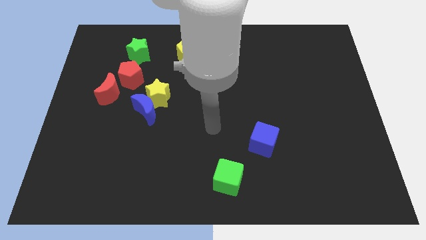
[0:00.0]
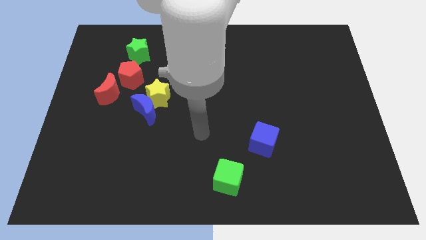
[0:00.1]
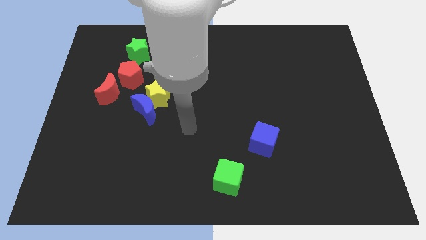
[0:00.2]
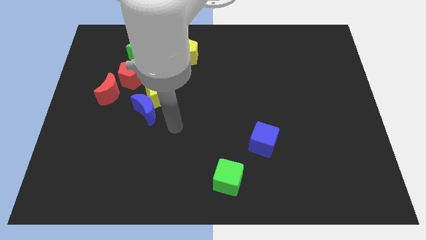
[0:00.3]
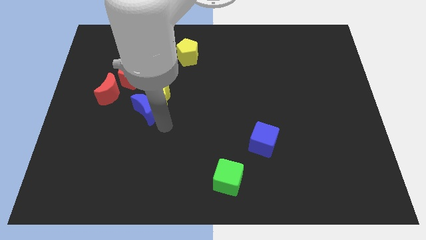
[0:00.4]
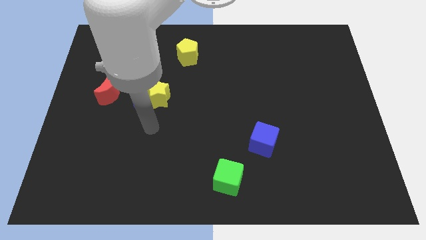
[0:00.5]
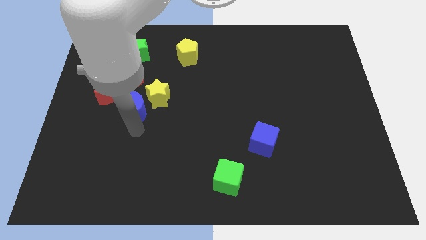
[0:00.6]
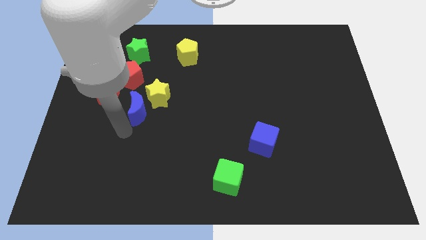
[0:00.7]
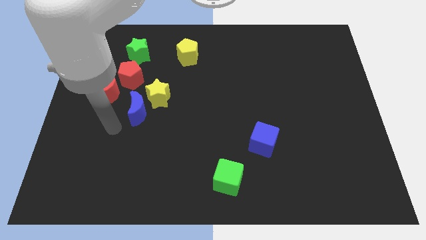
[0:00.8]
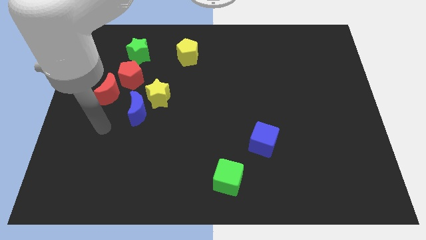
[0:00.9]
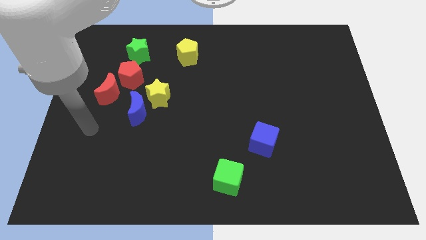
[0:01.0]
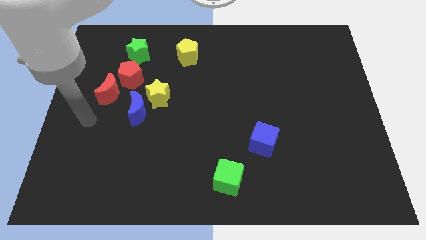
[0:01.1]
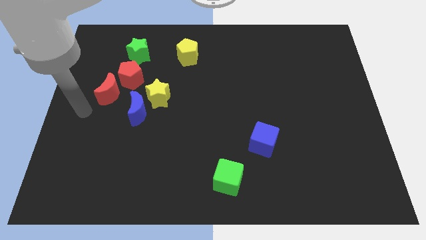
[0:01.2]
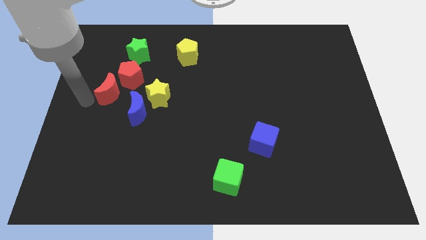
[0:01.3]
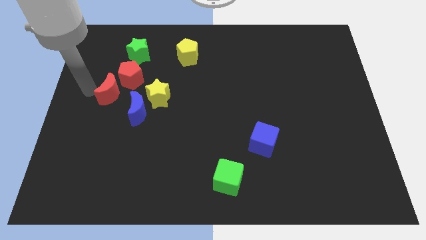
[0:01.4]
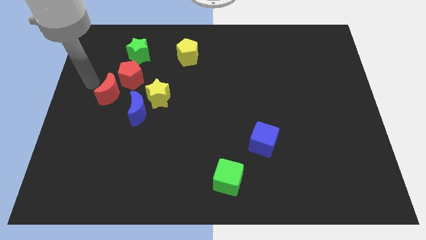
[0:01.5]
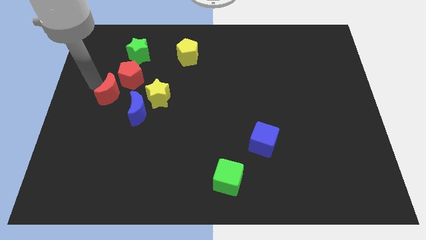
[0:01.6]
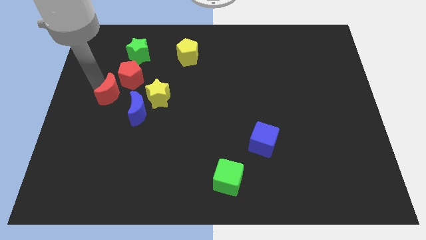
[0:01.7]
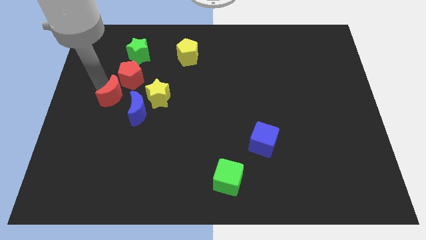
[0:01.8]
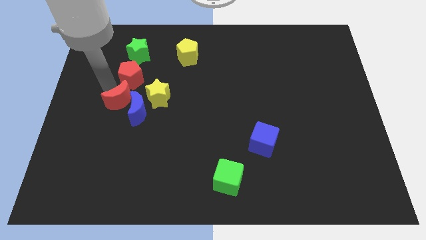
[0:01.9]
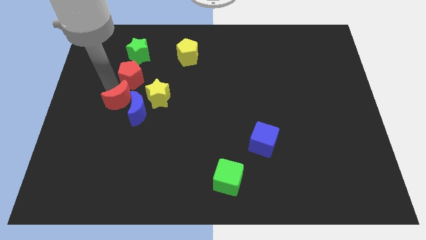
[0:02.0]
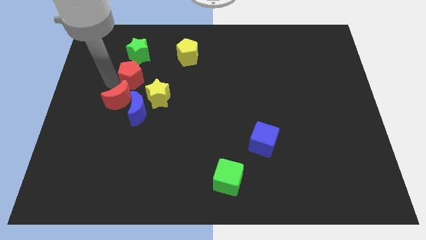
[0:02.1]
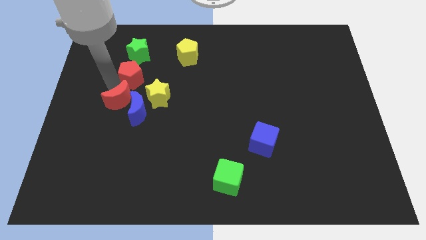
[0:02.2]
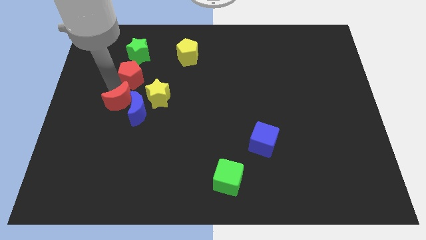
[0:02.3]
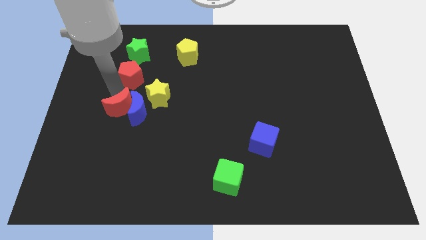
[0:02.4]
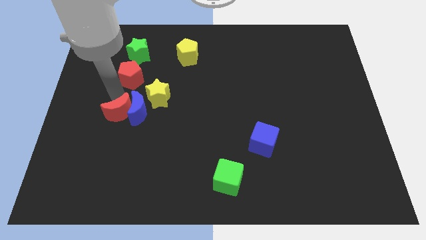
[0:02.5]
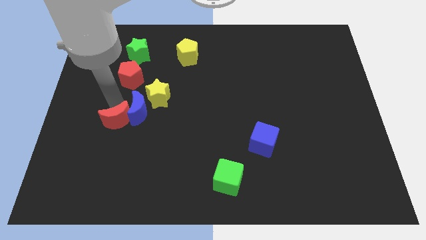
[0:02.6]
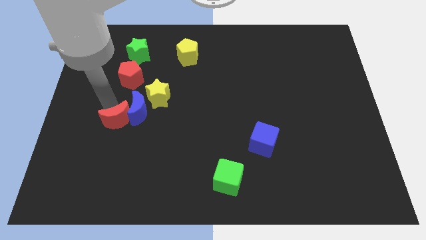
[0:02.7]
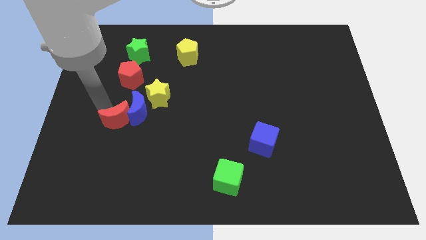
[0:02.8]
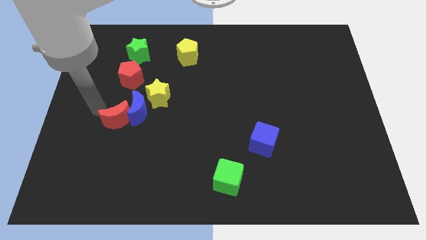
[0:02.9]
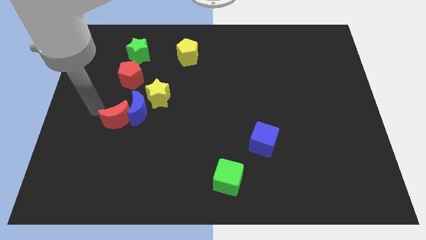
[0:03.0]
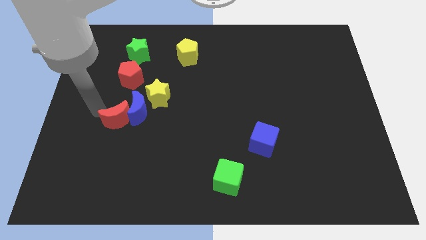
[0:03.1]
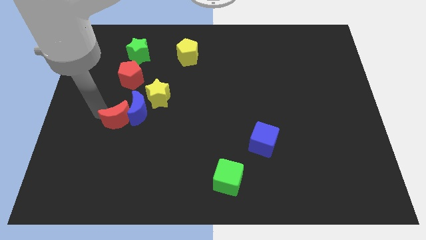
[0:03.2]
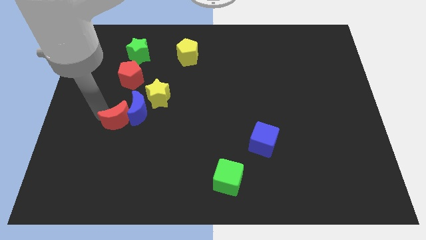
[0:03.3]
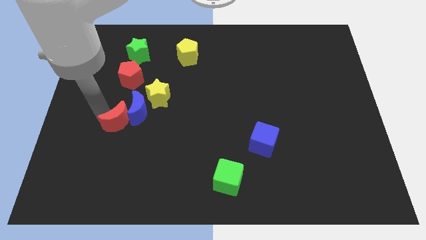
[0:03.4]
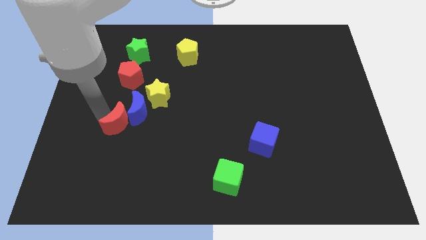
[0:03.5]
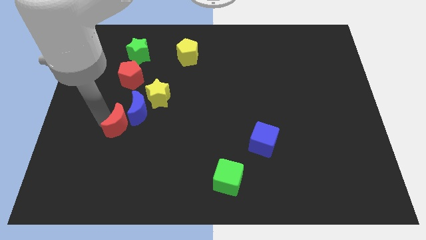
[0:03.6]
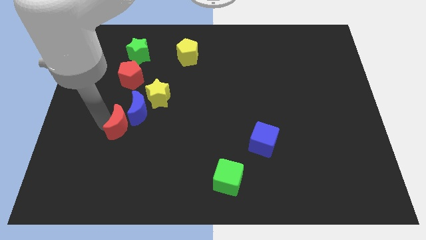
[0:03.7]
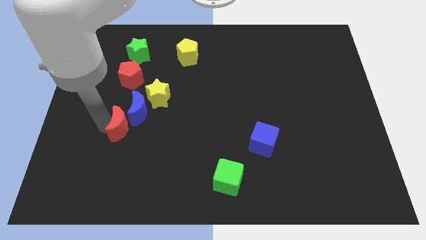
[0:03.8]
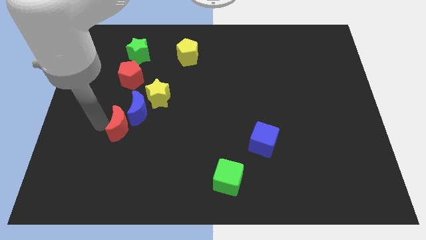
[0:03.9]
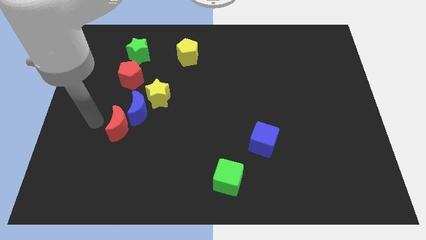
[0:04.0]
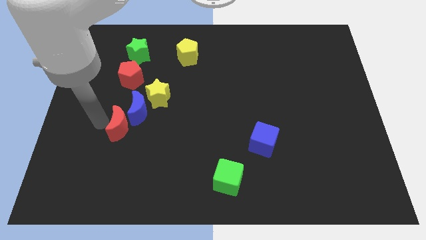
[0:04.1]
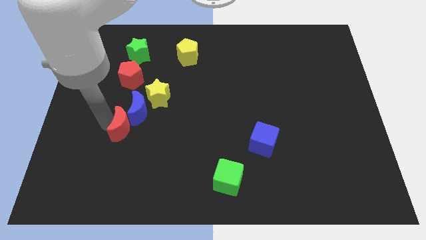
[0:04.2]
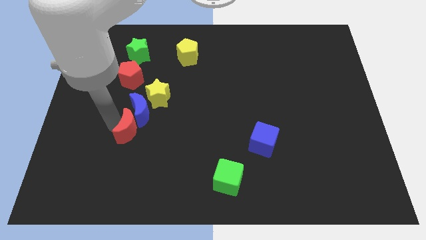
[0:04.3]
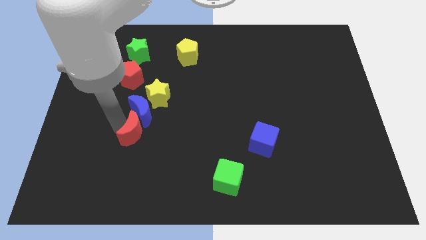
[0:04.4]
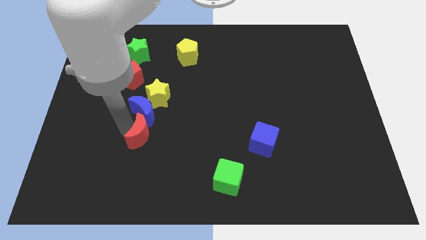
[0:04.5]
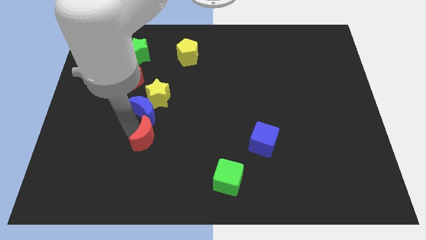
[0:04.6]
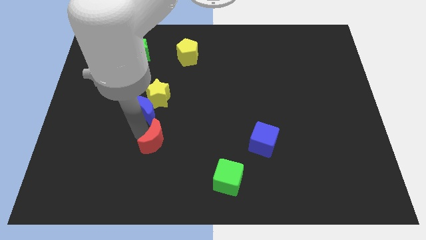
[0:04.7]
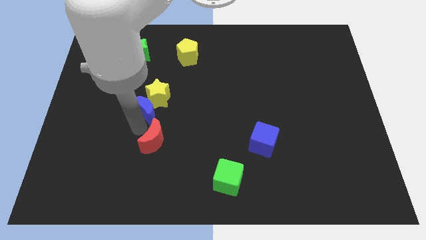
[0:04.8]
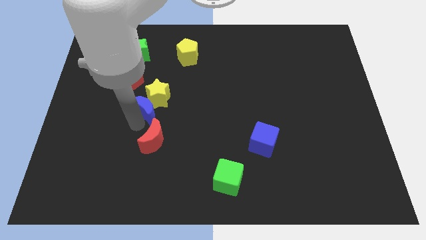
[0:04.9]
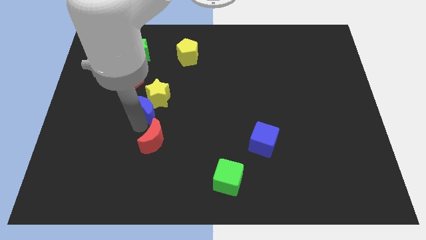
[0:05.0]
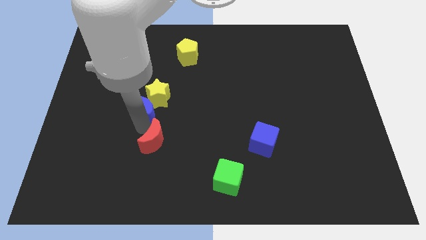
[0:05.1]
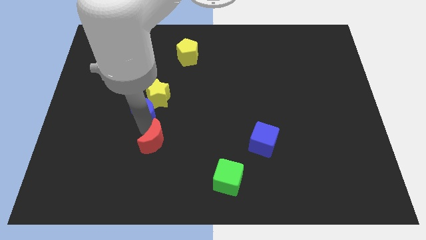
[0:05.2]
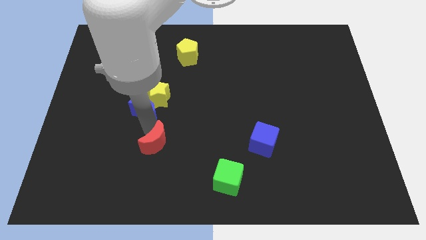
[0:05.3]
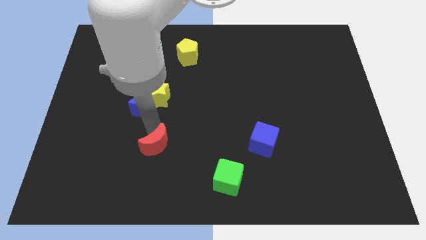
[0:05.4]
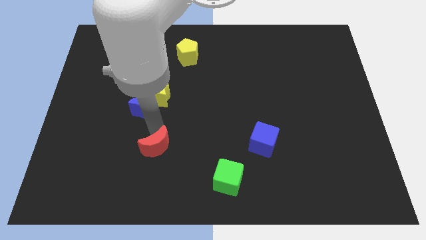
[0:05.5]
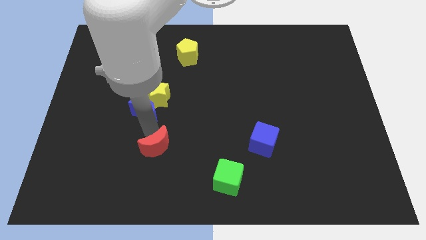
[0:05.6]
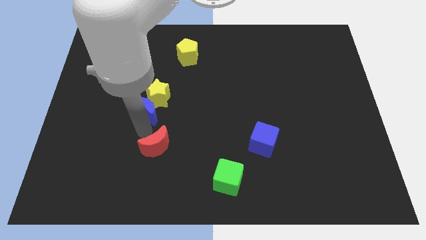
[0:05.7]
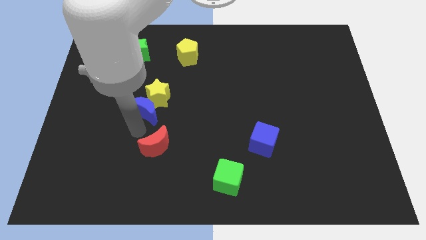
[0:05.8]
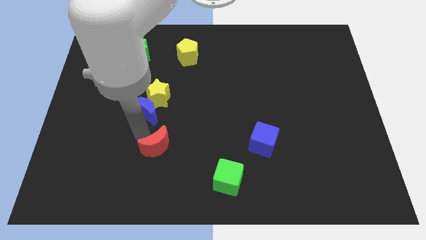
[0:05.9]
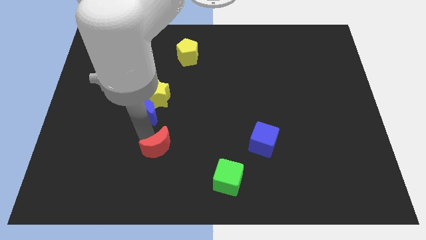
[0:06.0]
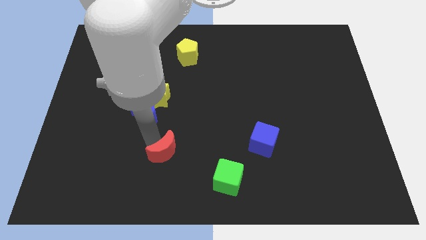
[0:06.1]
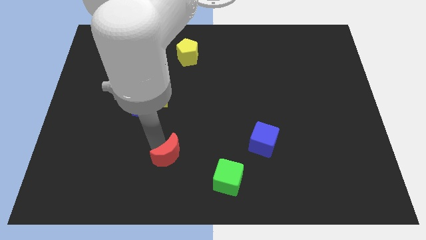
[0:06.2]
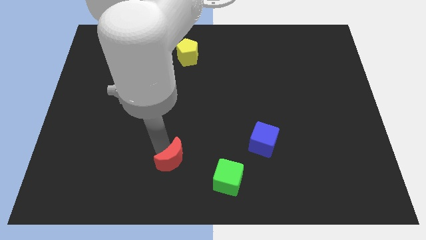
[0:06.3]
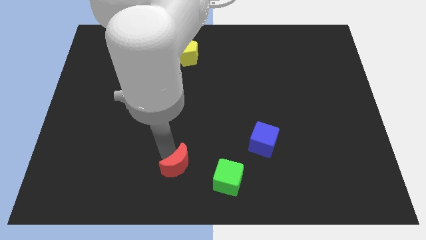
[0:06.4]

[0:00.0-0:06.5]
push the red moon to the bottom side
